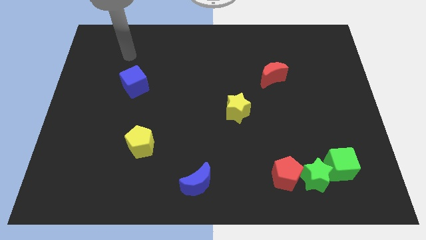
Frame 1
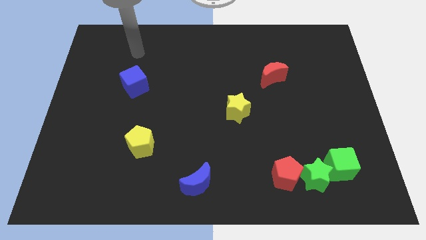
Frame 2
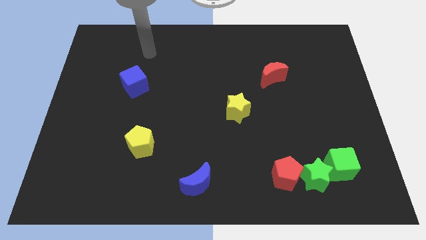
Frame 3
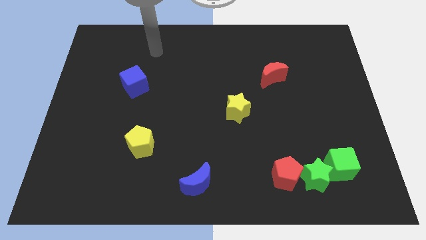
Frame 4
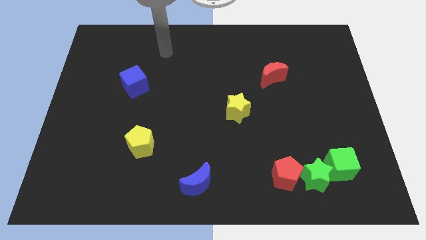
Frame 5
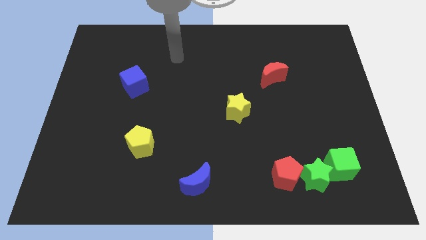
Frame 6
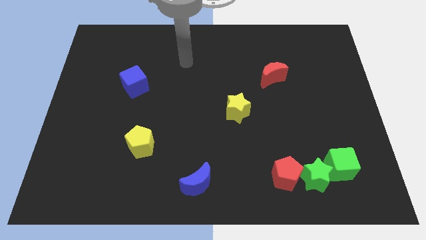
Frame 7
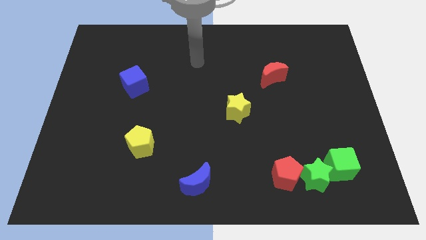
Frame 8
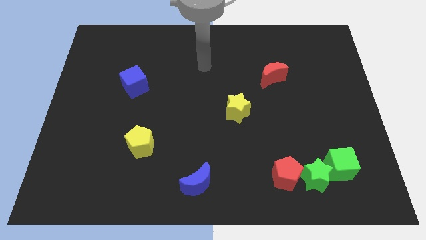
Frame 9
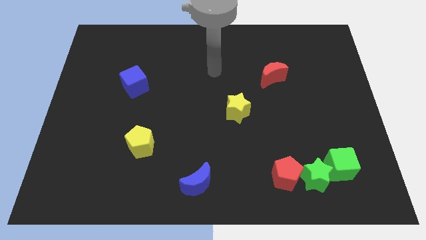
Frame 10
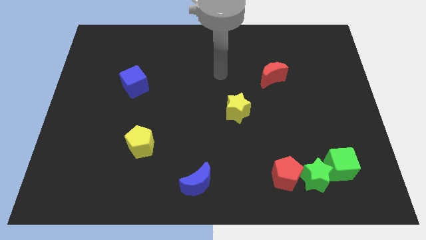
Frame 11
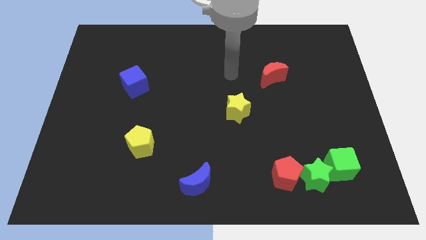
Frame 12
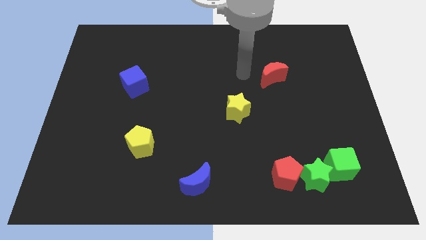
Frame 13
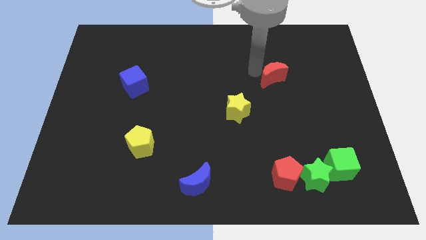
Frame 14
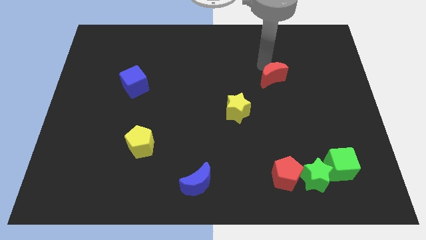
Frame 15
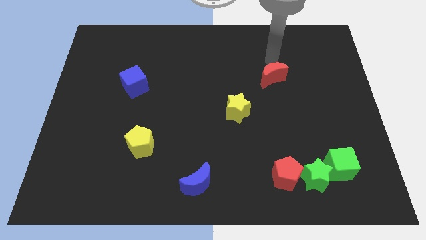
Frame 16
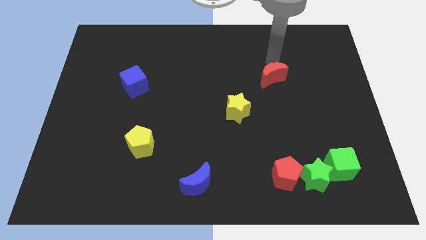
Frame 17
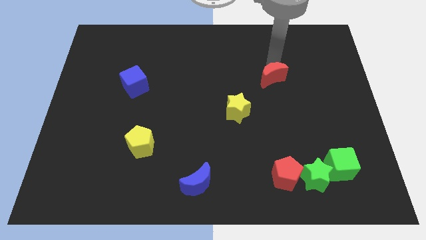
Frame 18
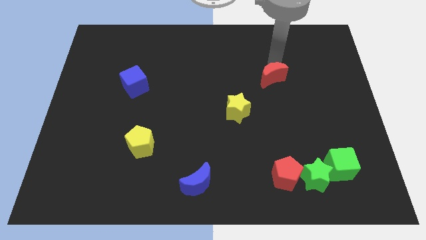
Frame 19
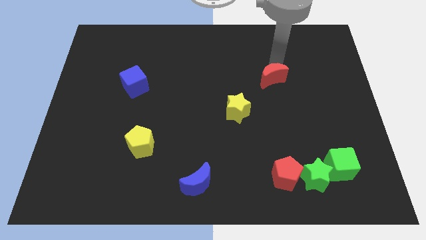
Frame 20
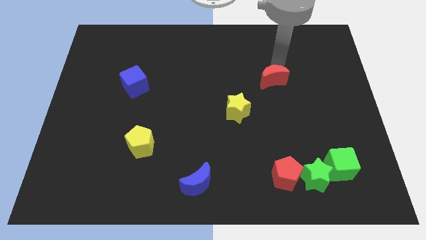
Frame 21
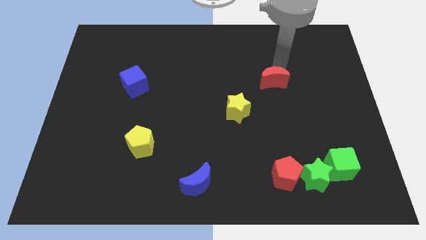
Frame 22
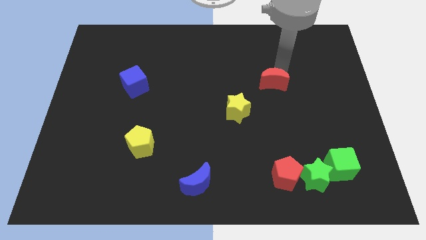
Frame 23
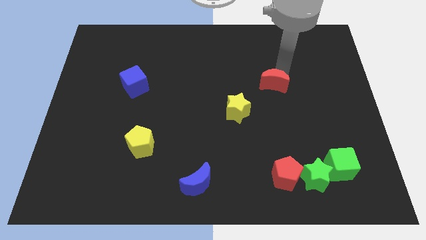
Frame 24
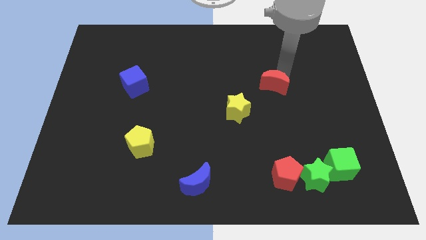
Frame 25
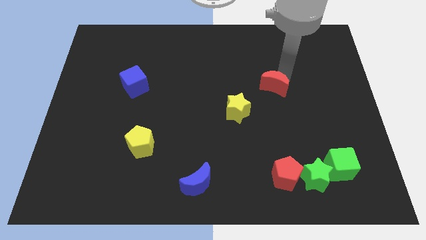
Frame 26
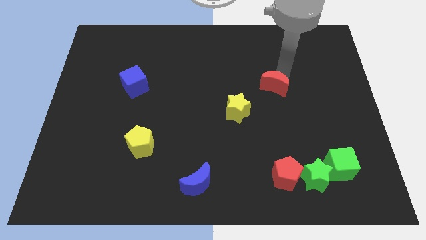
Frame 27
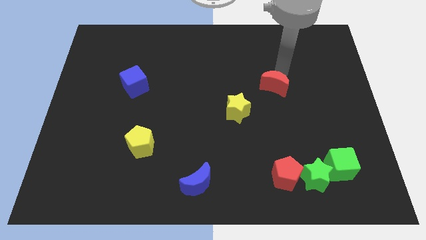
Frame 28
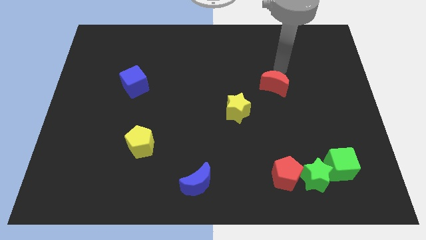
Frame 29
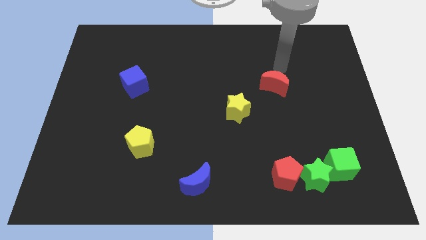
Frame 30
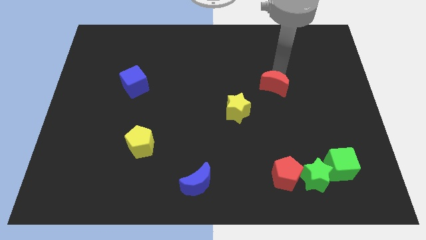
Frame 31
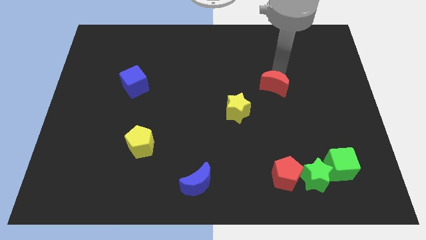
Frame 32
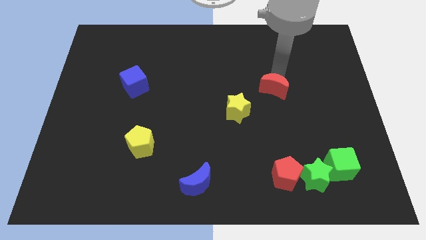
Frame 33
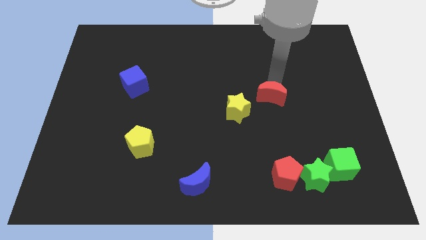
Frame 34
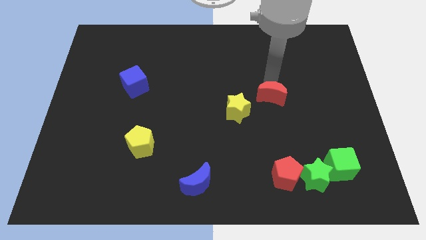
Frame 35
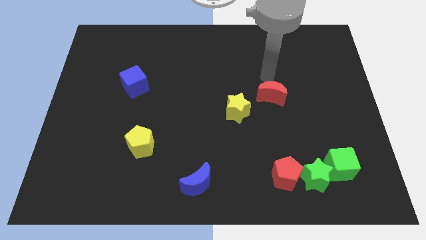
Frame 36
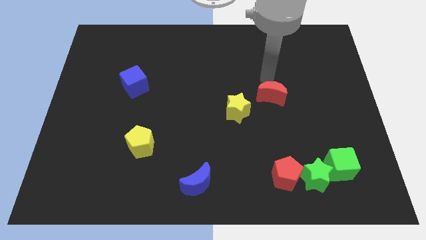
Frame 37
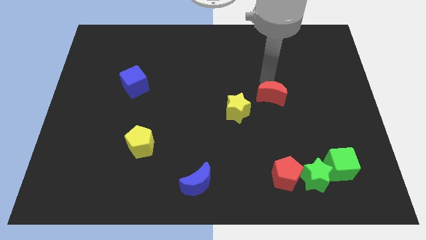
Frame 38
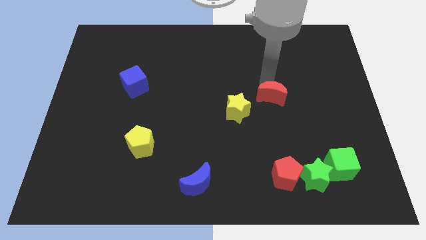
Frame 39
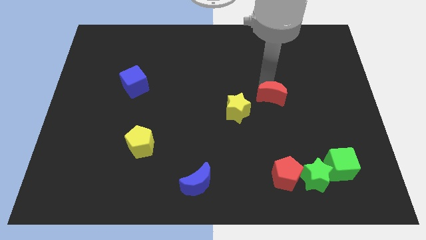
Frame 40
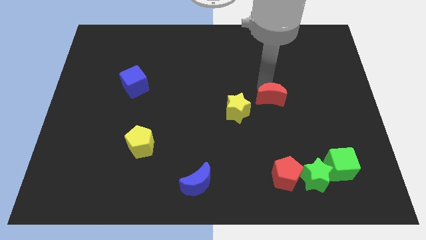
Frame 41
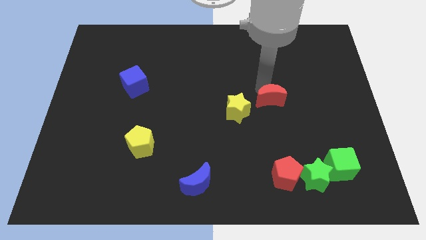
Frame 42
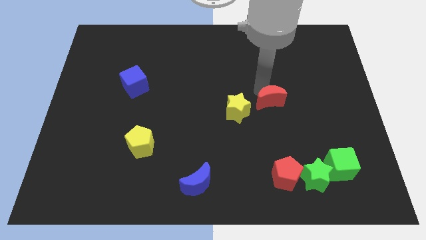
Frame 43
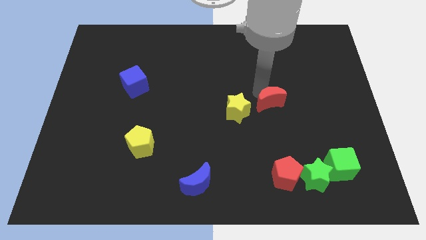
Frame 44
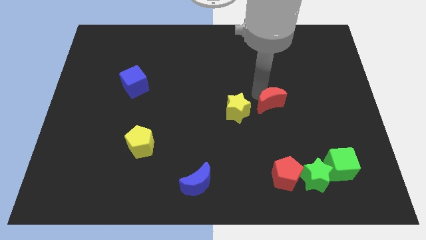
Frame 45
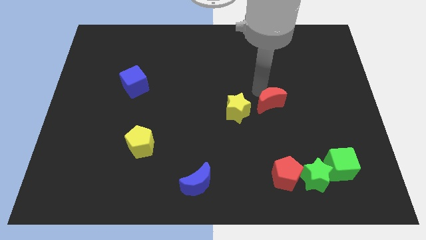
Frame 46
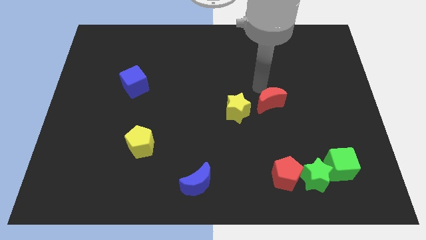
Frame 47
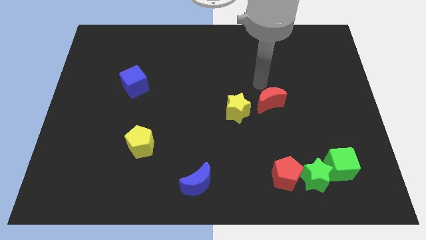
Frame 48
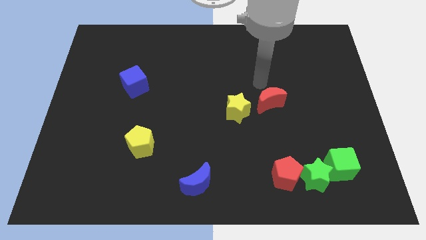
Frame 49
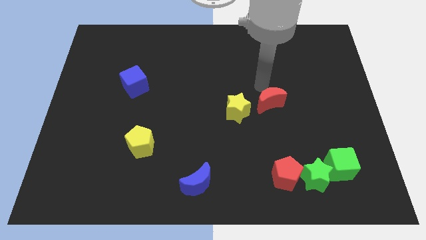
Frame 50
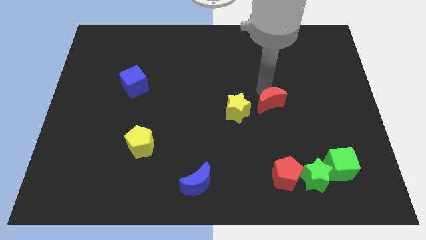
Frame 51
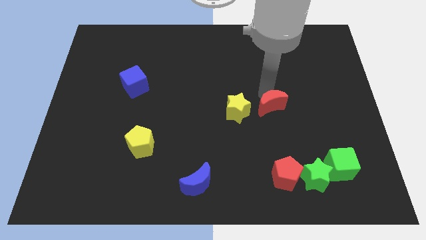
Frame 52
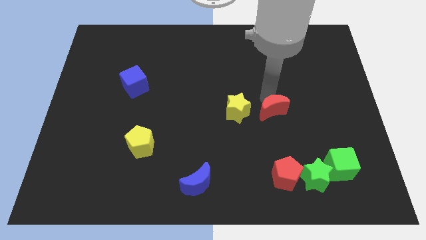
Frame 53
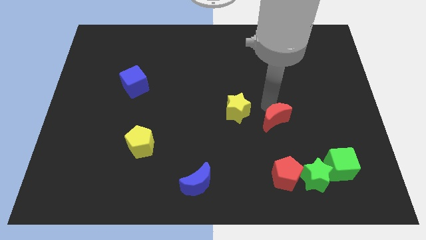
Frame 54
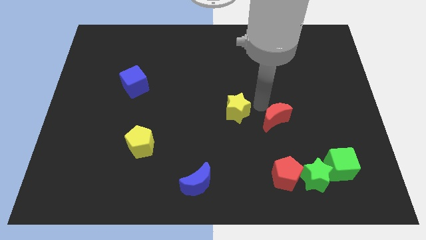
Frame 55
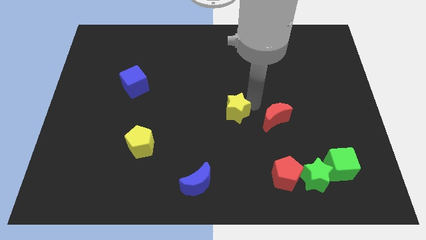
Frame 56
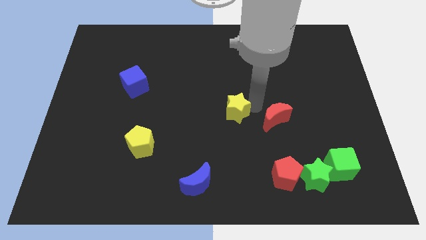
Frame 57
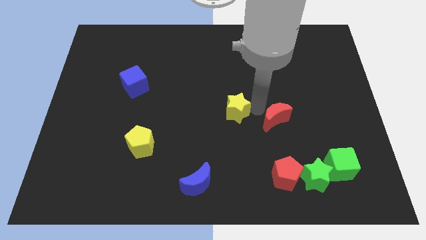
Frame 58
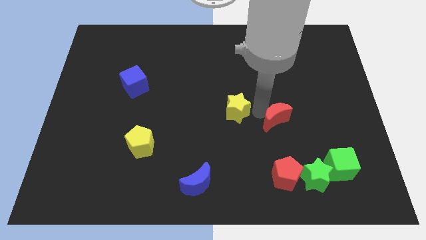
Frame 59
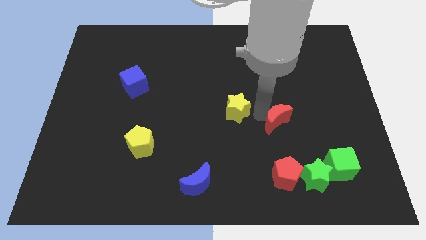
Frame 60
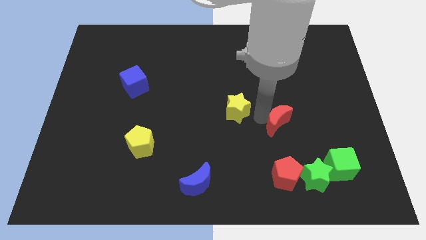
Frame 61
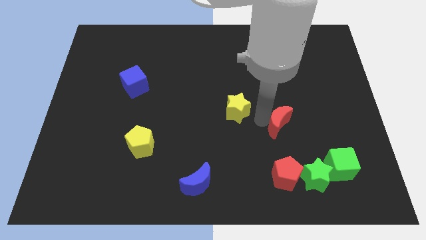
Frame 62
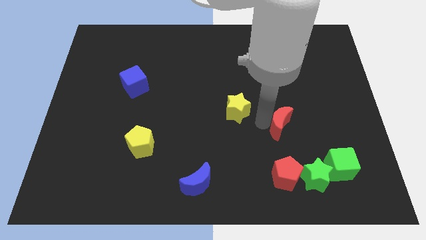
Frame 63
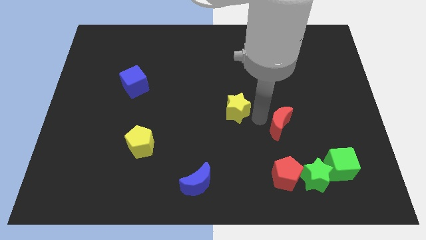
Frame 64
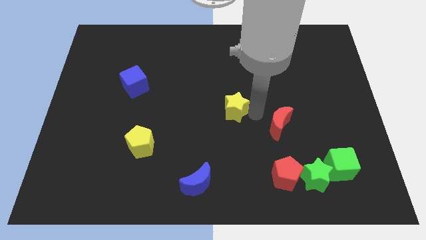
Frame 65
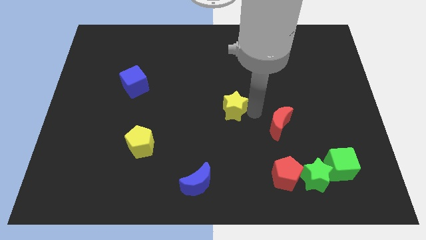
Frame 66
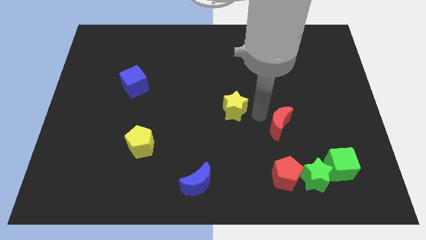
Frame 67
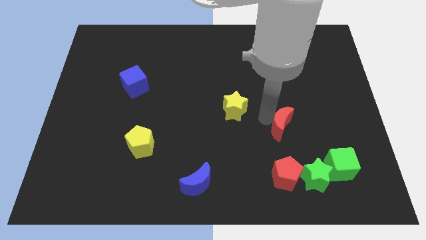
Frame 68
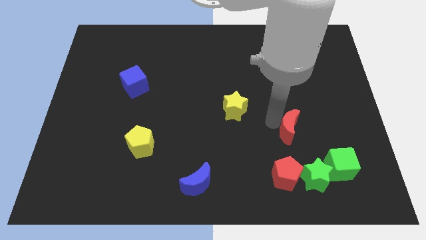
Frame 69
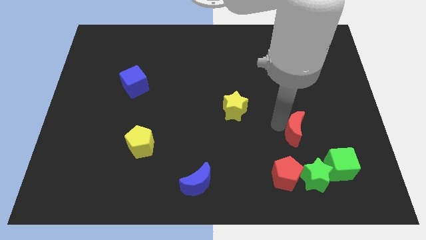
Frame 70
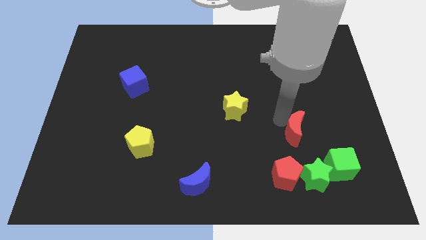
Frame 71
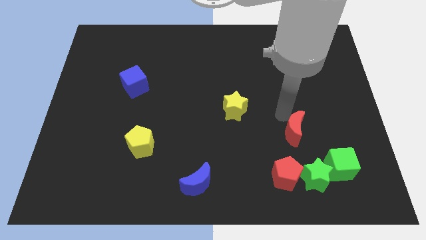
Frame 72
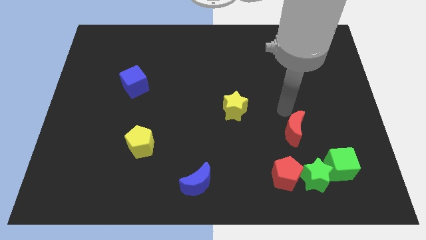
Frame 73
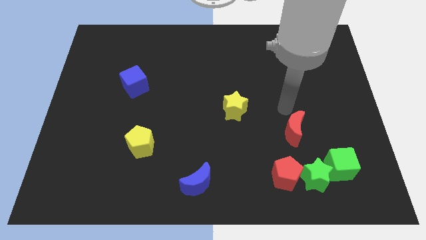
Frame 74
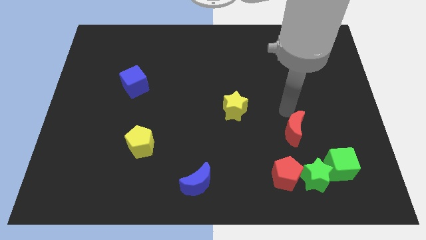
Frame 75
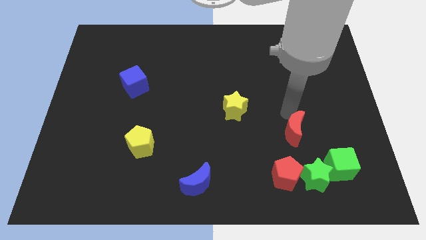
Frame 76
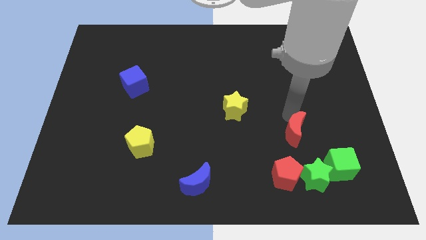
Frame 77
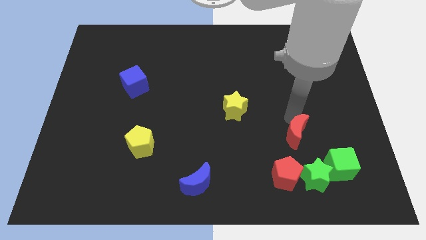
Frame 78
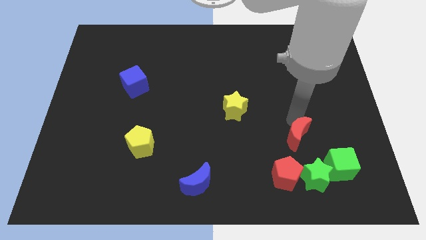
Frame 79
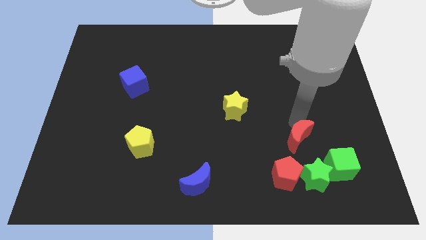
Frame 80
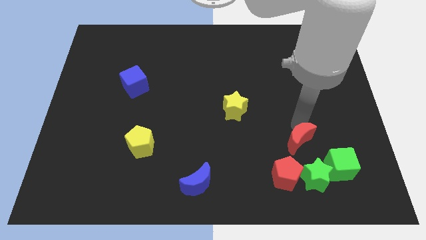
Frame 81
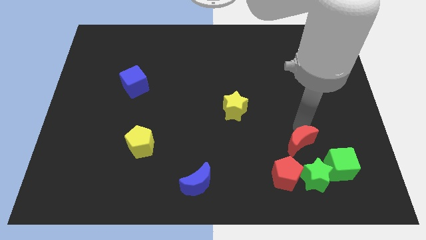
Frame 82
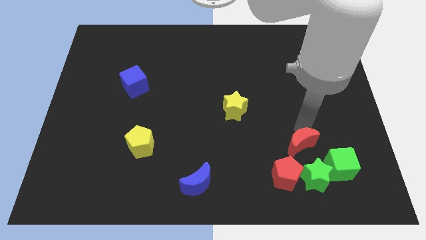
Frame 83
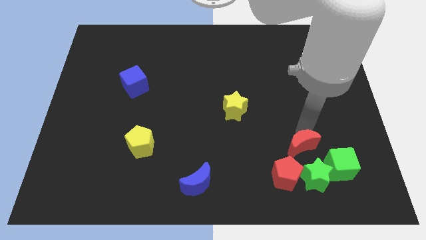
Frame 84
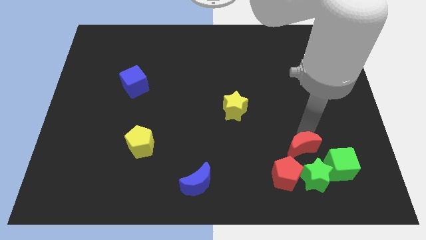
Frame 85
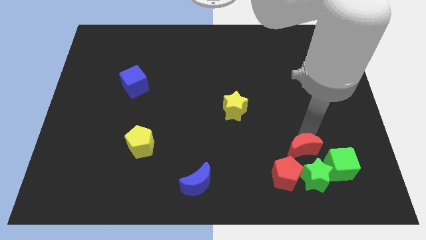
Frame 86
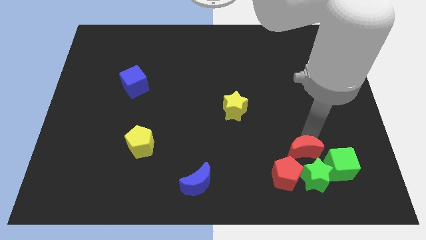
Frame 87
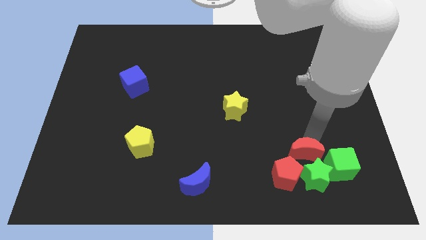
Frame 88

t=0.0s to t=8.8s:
push the red moon next to the green star
